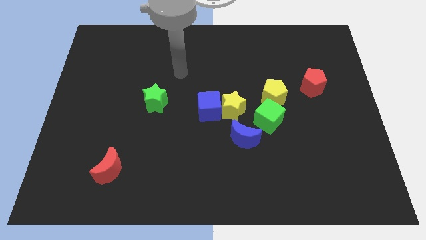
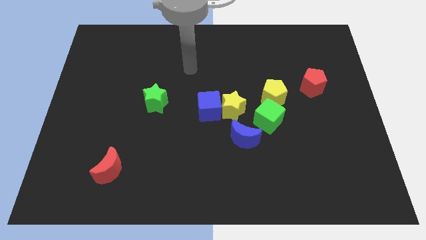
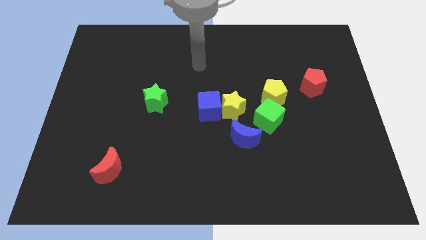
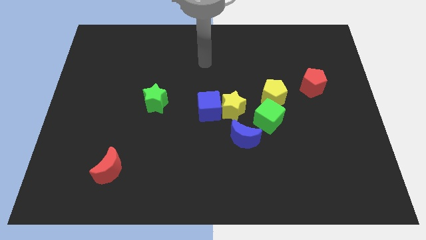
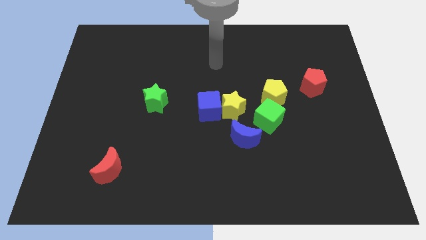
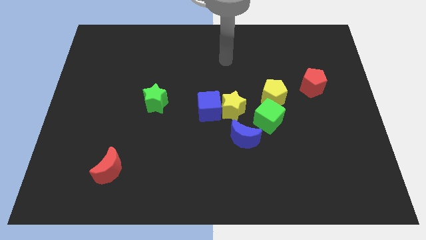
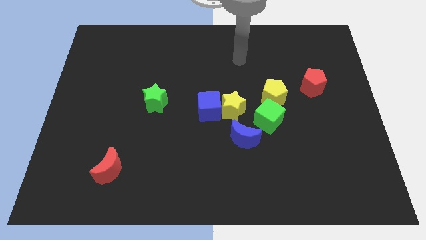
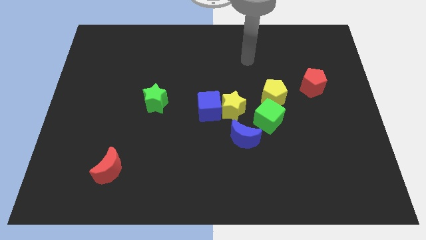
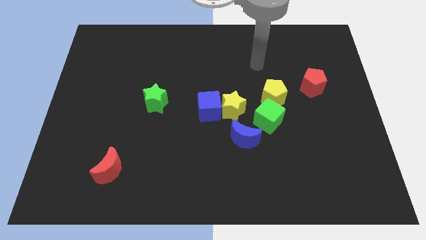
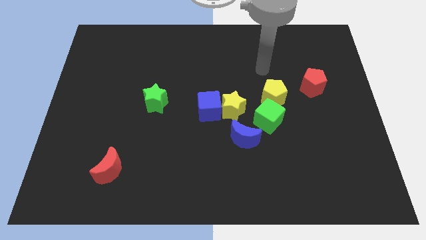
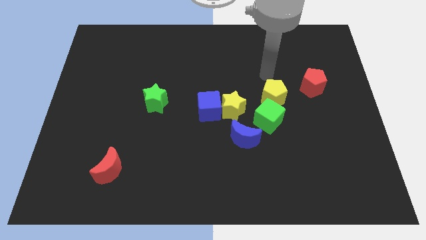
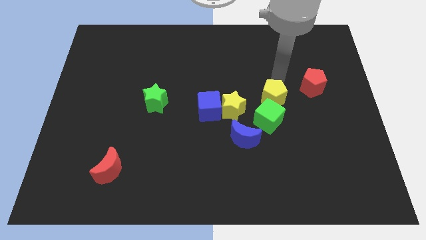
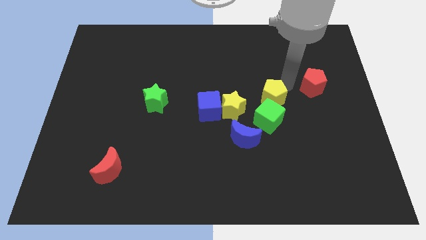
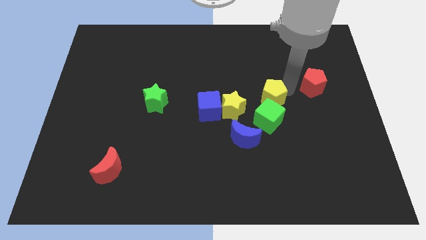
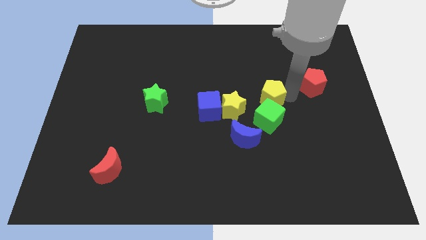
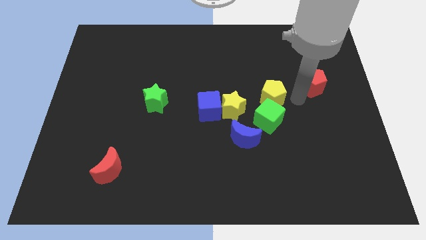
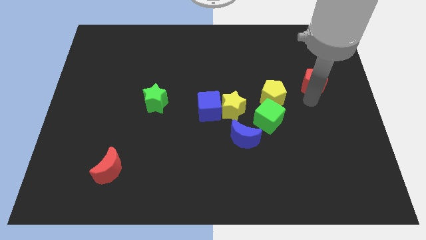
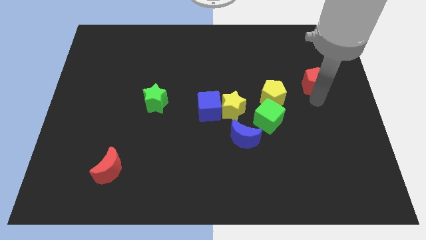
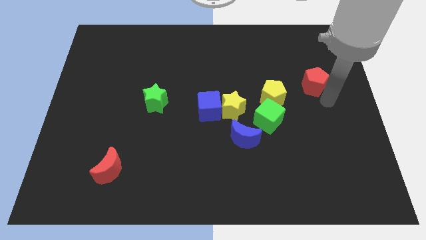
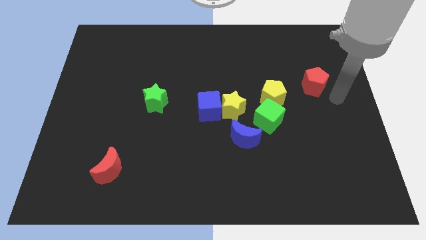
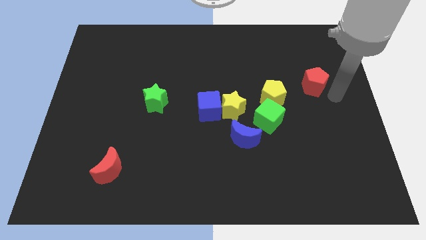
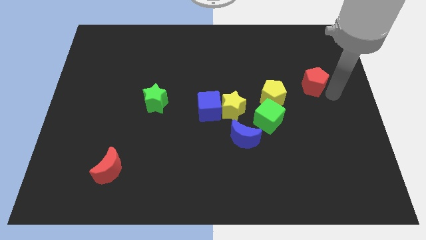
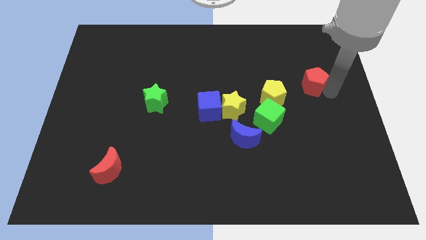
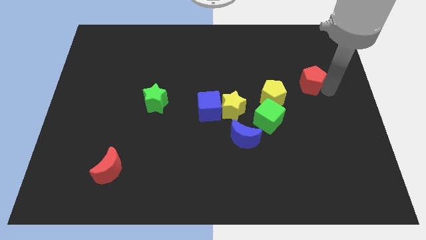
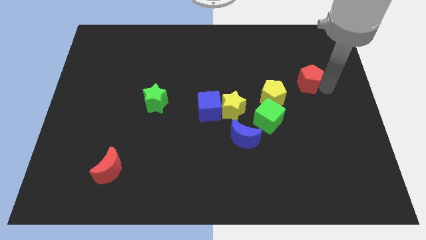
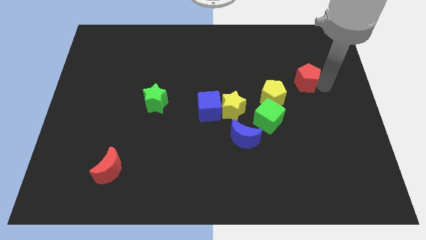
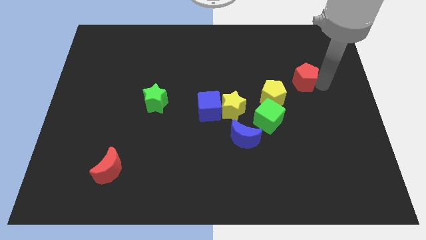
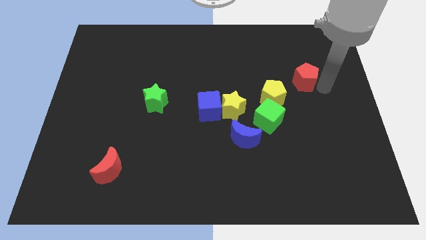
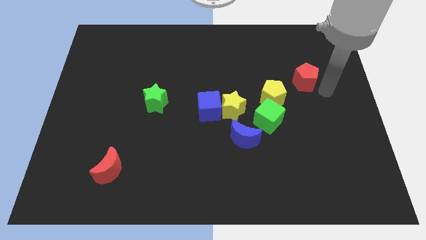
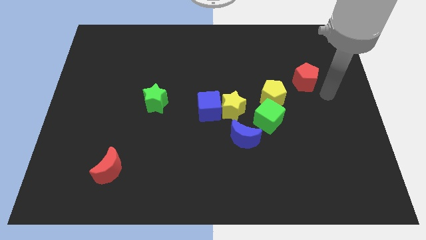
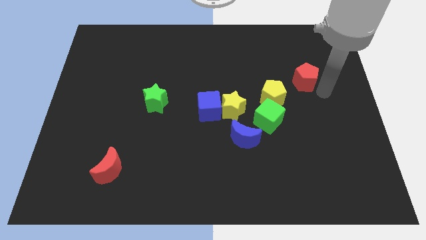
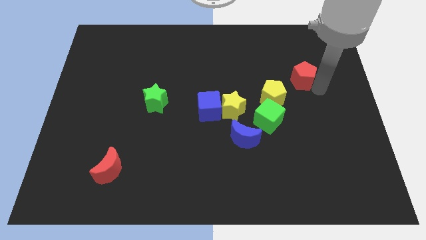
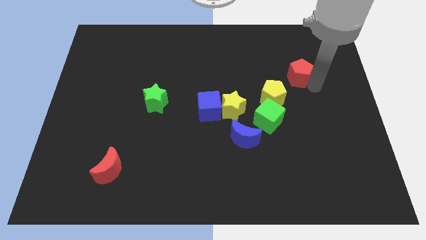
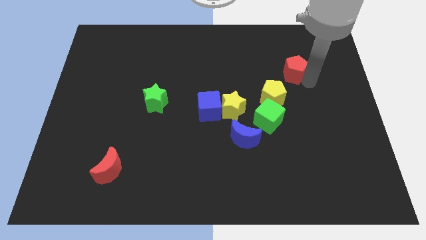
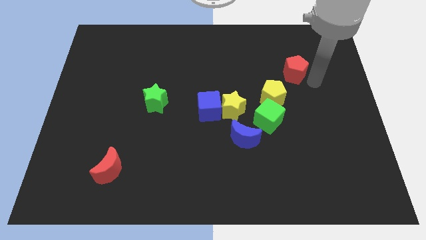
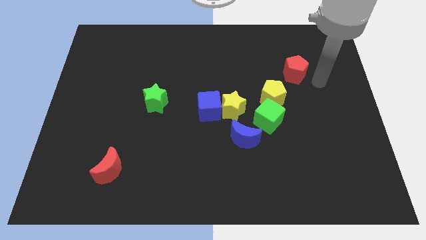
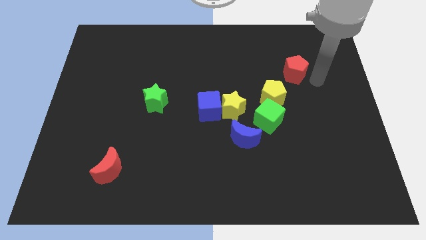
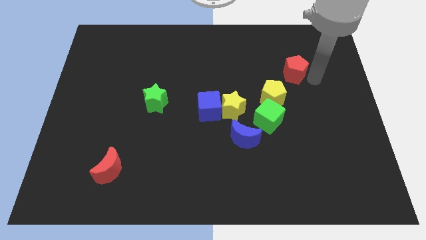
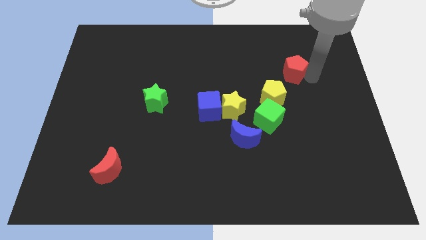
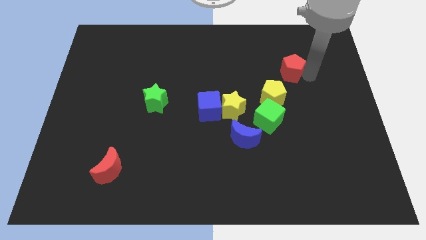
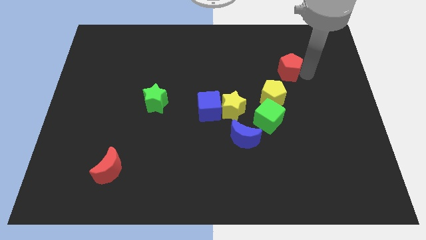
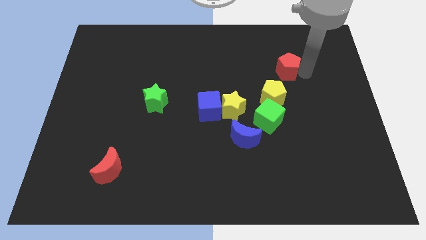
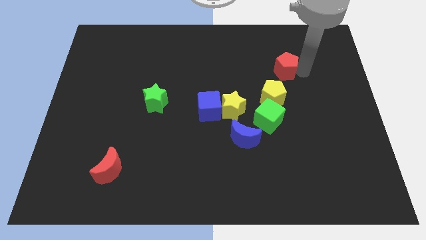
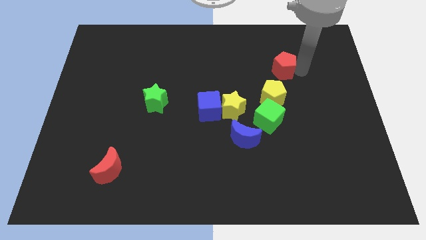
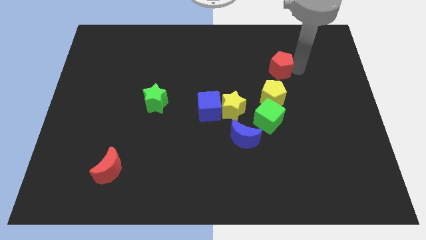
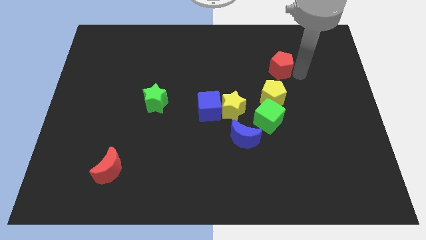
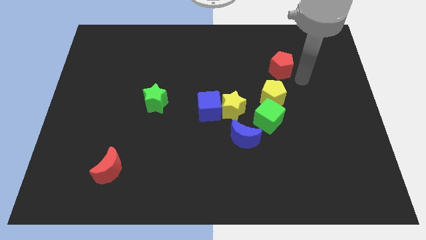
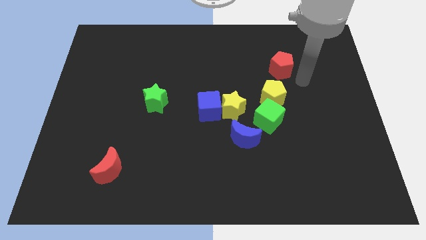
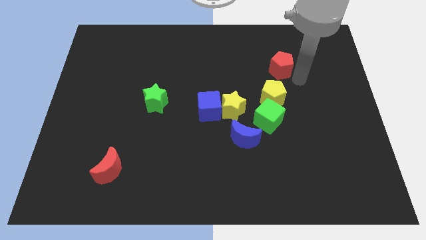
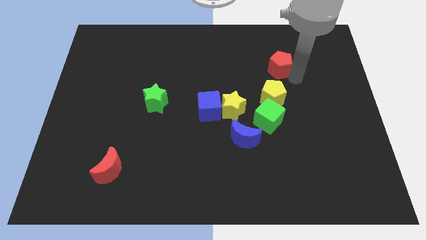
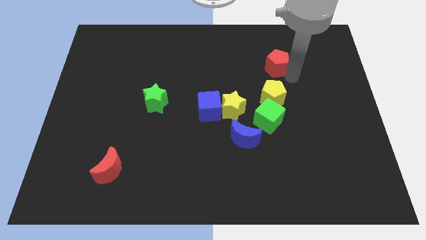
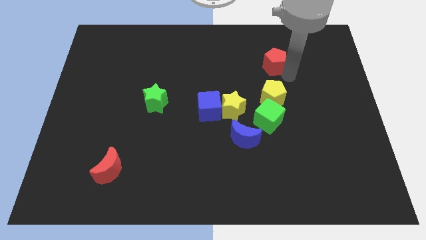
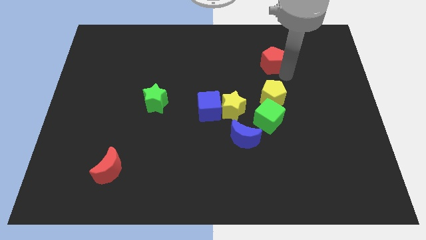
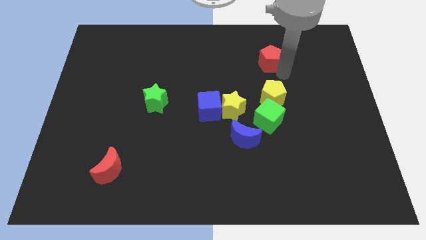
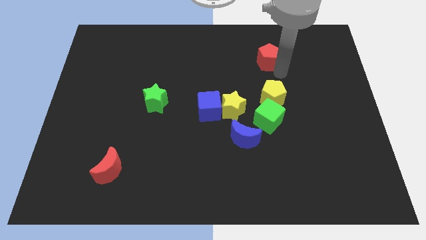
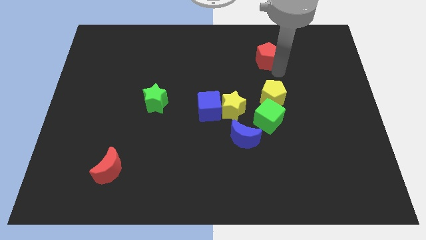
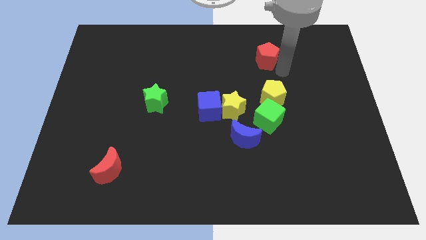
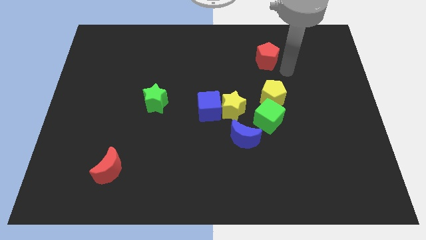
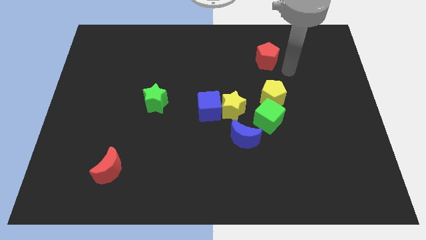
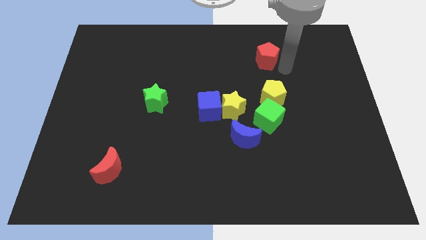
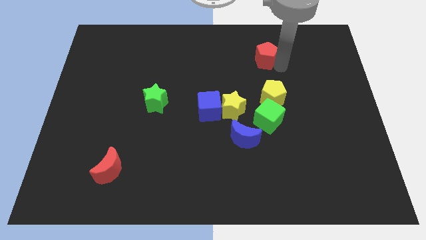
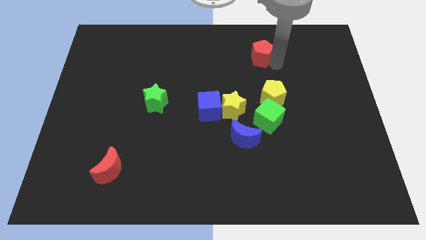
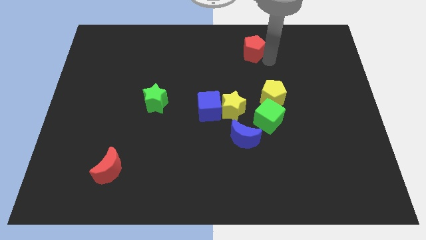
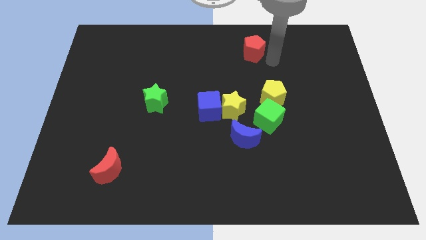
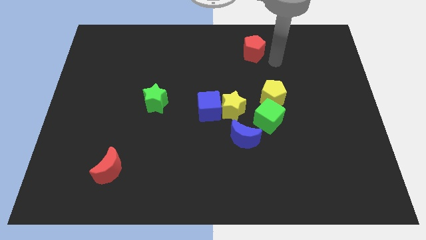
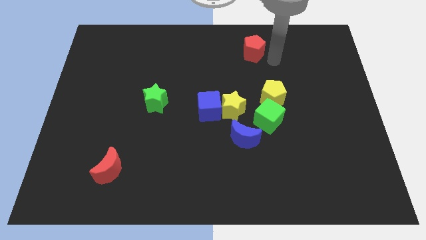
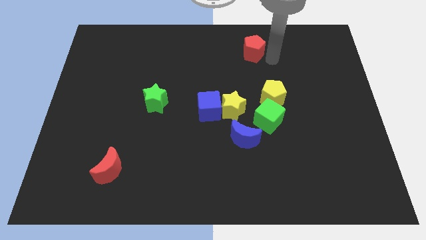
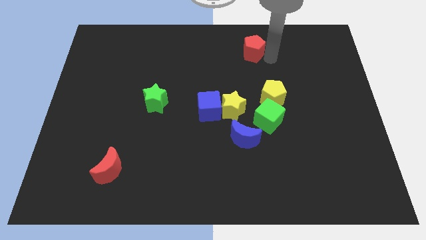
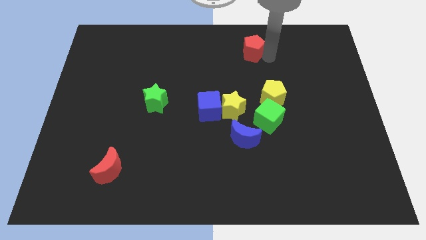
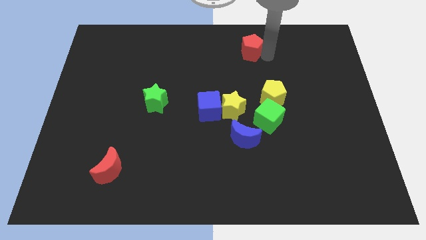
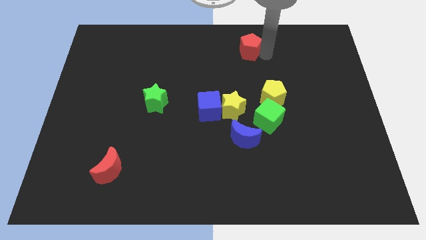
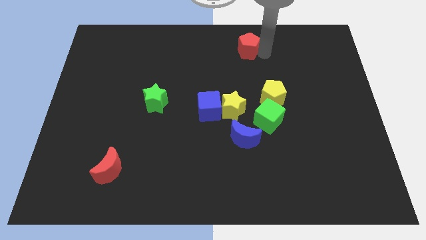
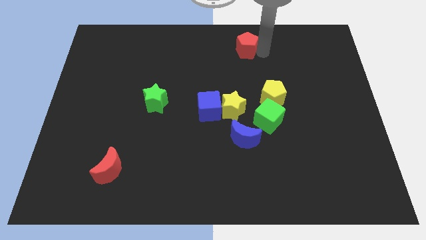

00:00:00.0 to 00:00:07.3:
move the red pentagon to the towards your base

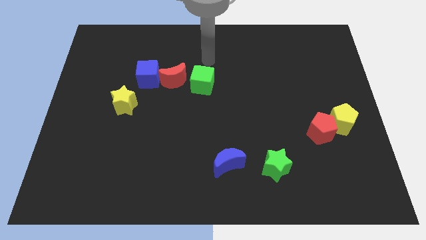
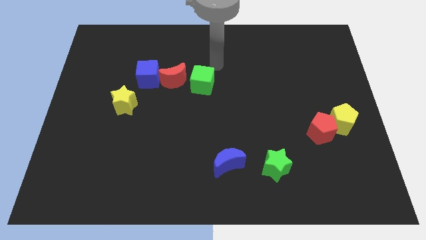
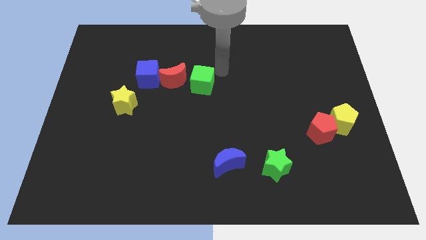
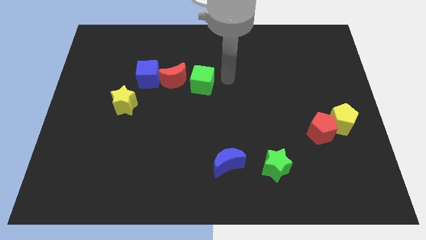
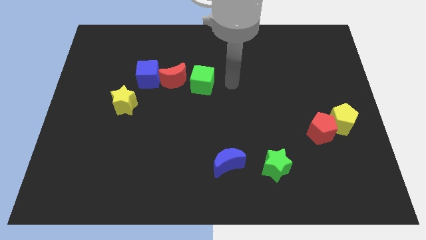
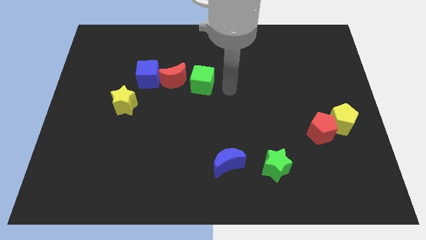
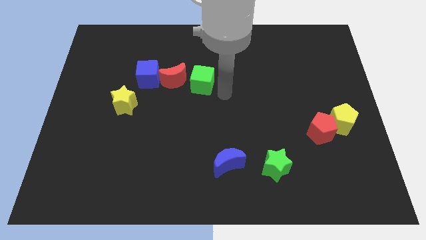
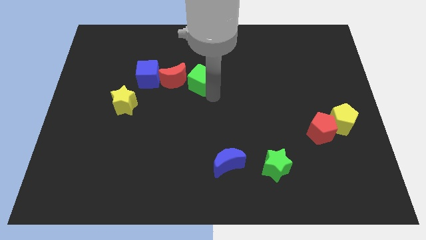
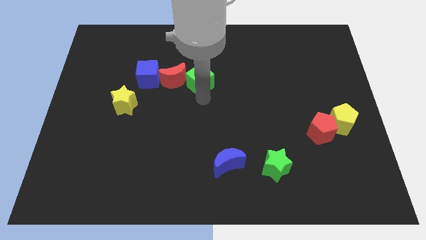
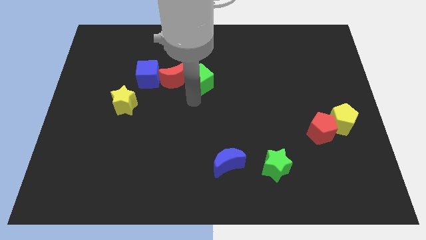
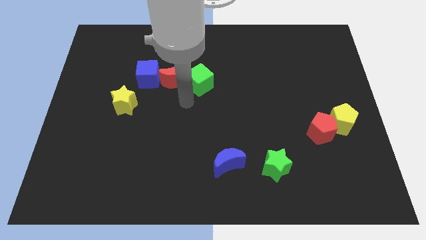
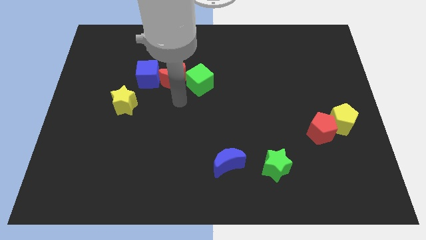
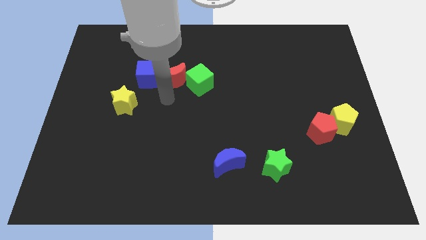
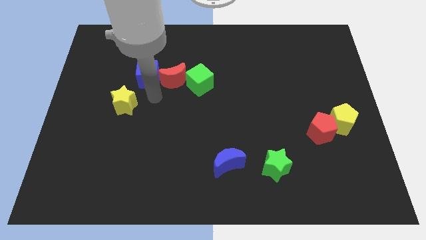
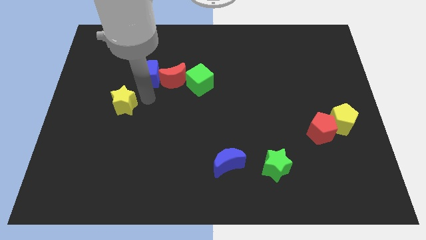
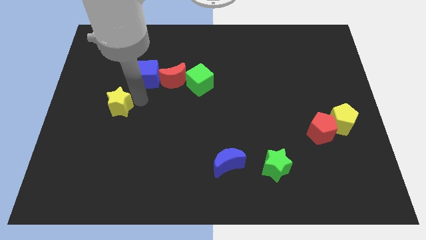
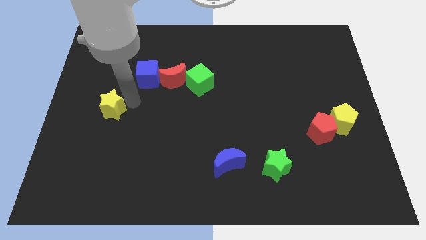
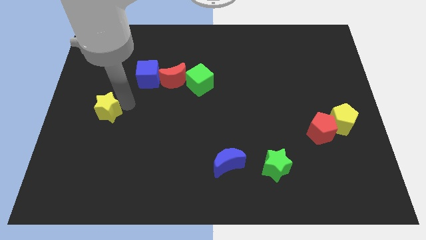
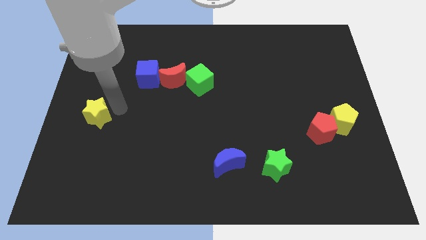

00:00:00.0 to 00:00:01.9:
put the yellow star to the left side of the board
